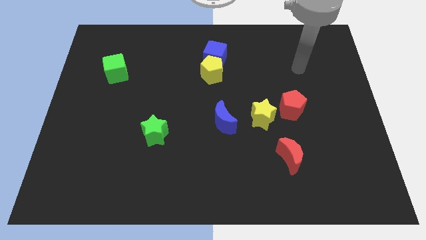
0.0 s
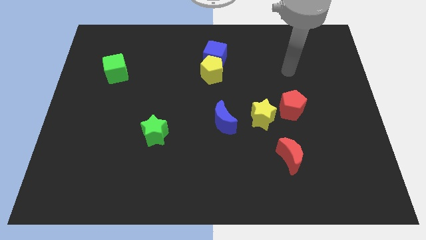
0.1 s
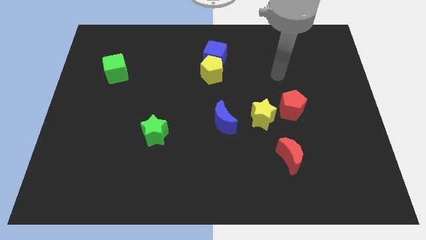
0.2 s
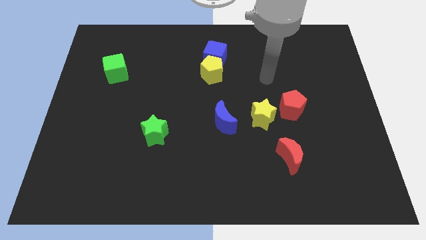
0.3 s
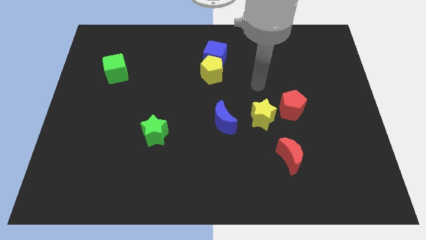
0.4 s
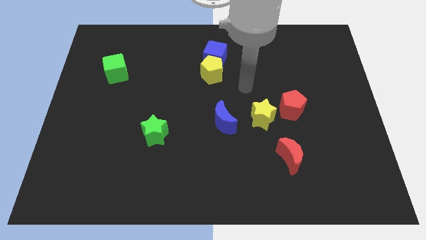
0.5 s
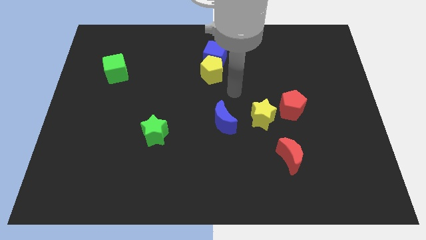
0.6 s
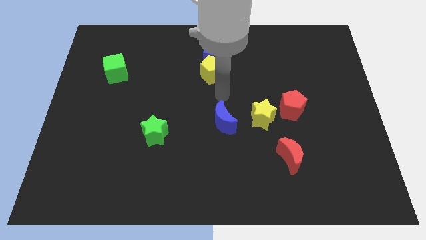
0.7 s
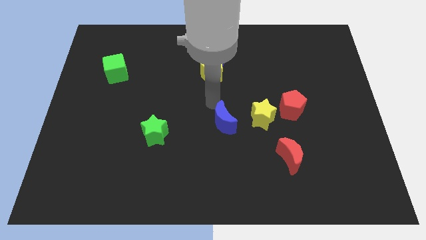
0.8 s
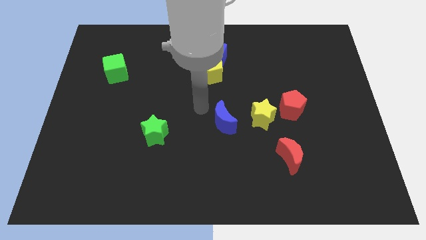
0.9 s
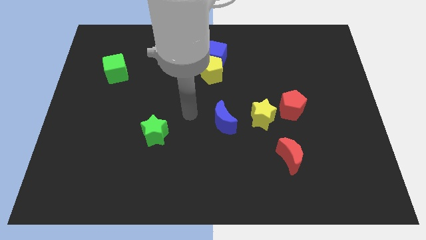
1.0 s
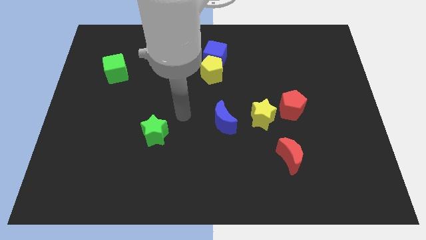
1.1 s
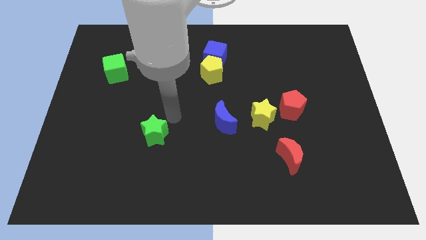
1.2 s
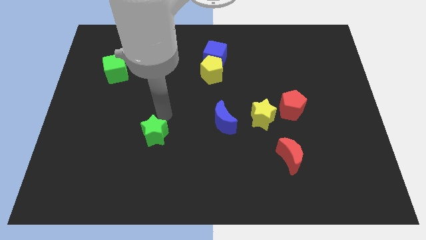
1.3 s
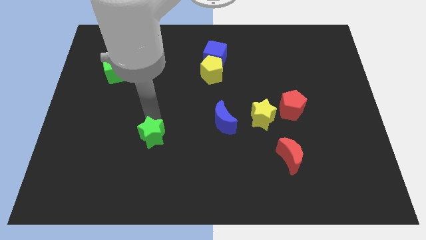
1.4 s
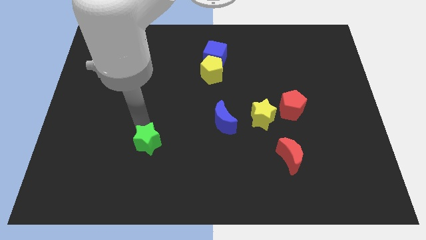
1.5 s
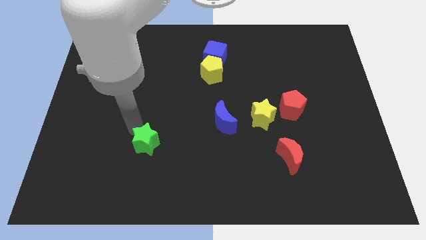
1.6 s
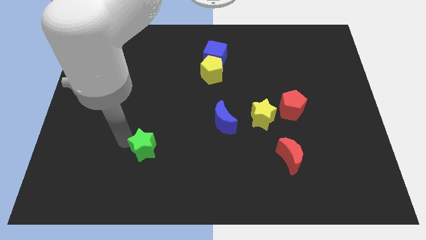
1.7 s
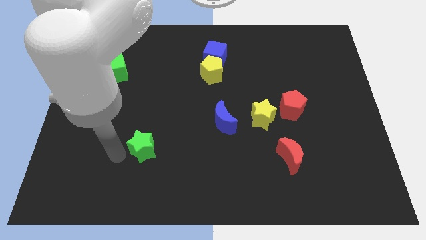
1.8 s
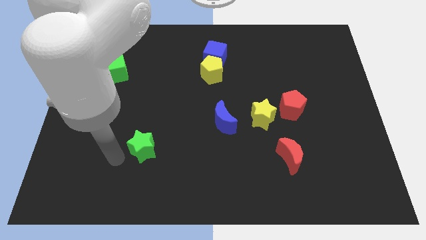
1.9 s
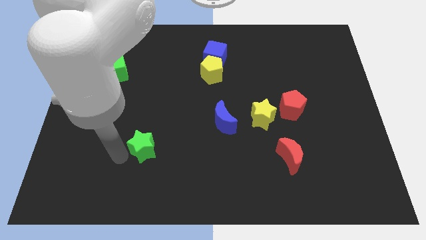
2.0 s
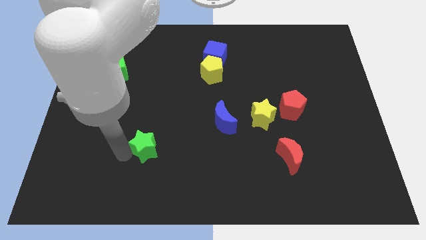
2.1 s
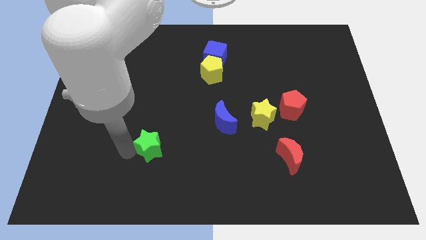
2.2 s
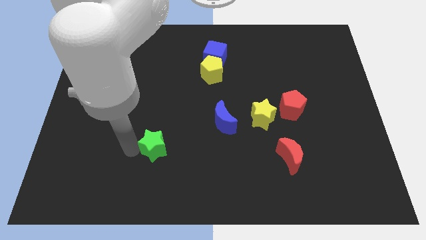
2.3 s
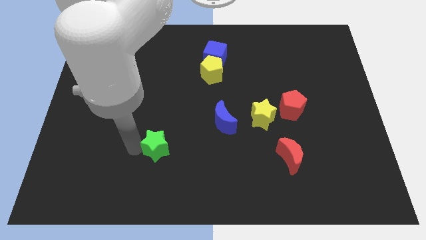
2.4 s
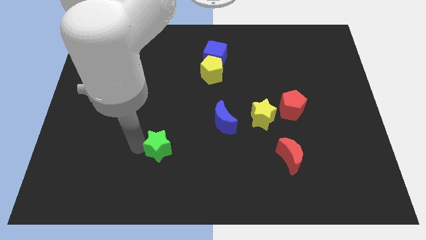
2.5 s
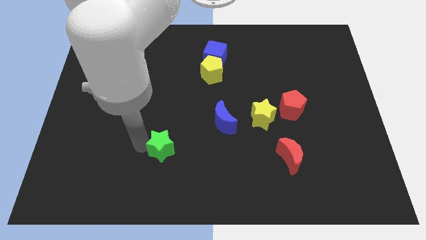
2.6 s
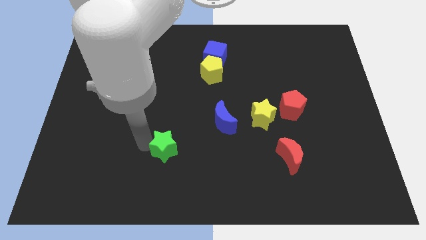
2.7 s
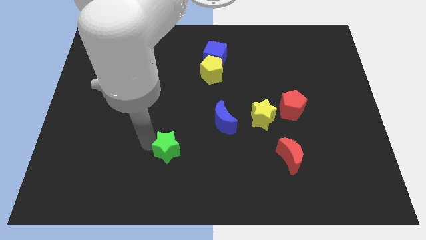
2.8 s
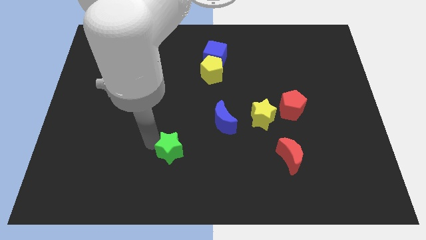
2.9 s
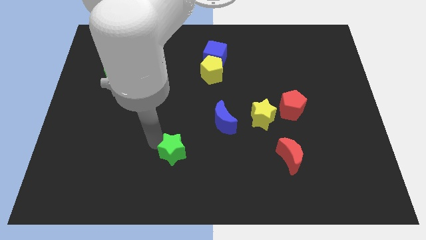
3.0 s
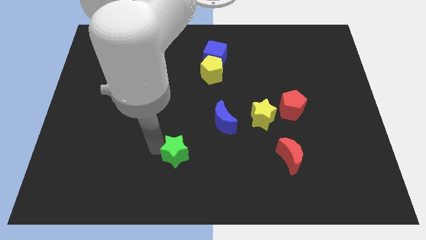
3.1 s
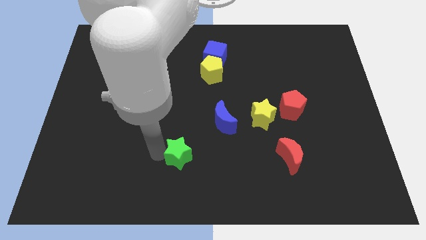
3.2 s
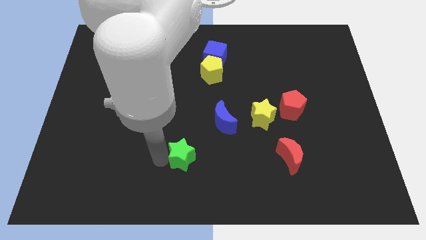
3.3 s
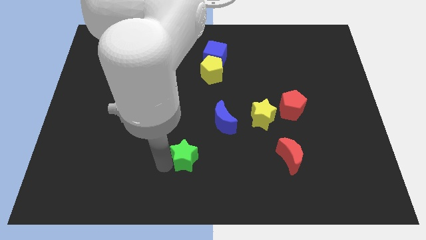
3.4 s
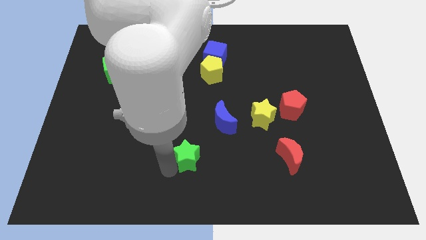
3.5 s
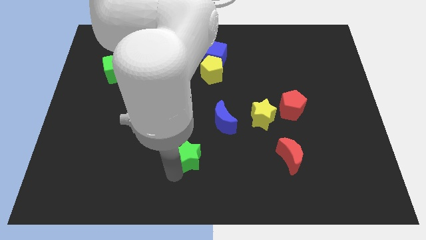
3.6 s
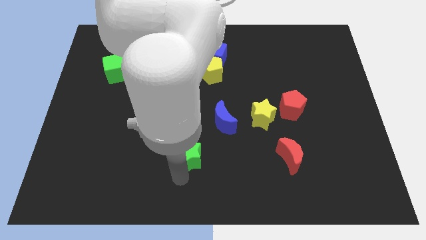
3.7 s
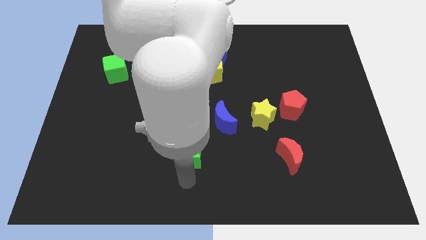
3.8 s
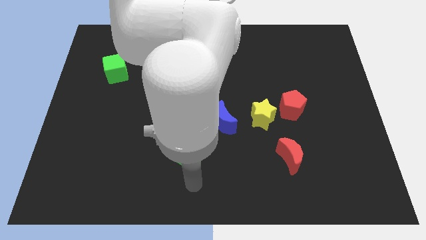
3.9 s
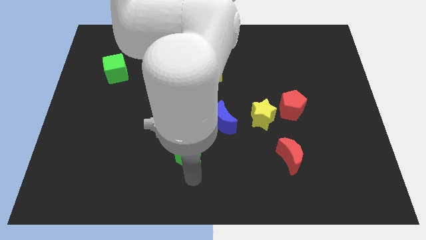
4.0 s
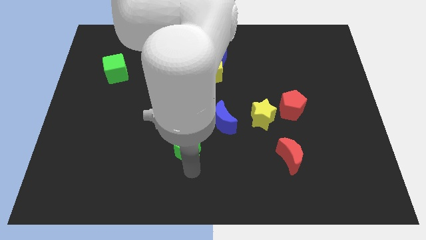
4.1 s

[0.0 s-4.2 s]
slide the green star a little to the right

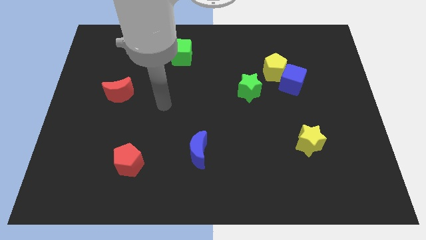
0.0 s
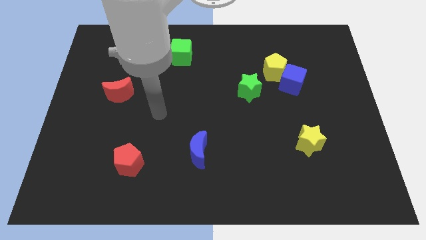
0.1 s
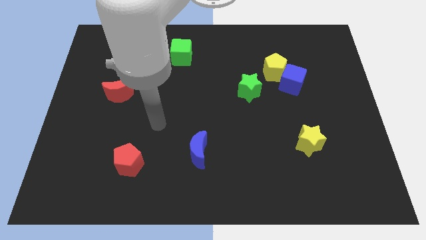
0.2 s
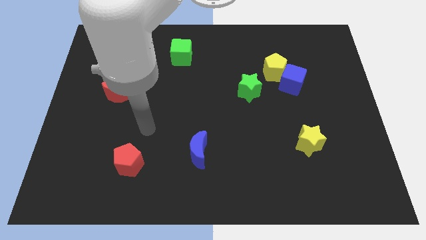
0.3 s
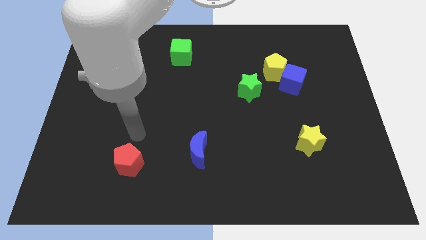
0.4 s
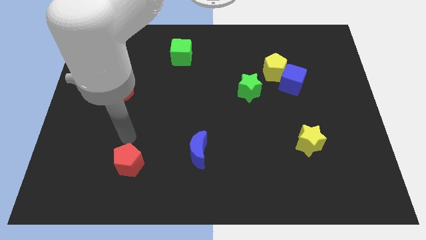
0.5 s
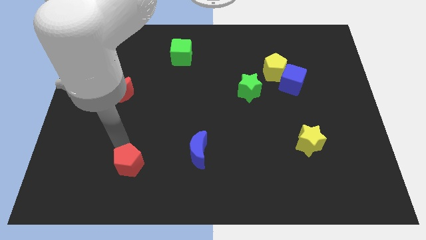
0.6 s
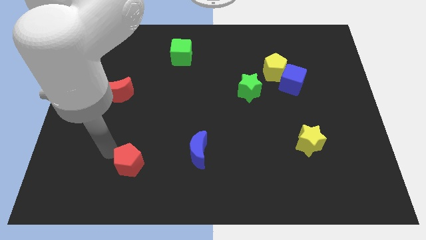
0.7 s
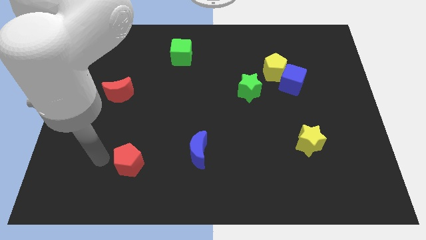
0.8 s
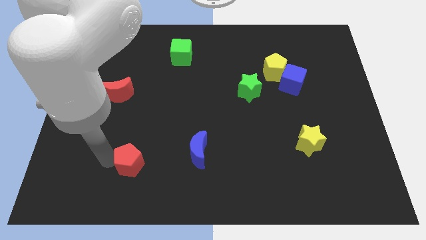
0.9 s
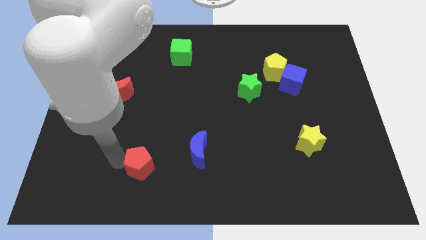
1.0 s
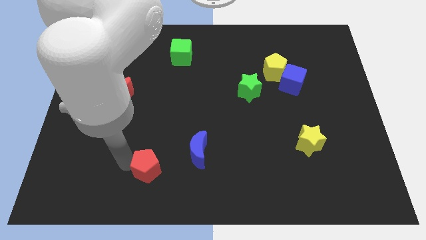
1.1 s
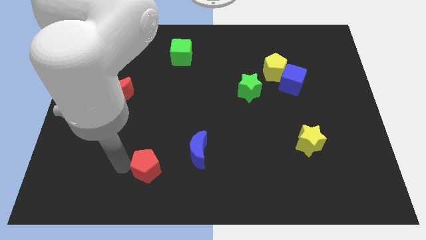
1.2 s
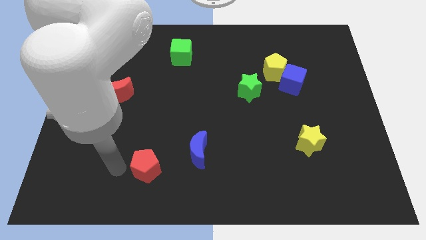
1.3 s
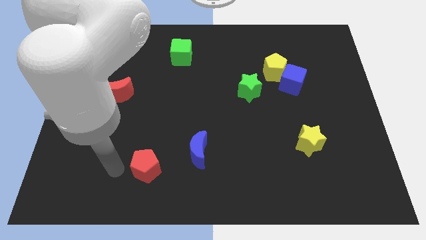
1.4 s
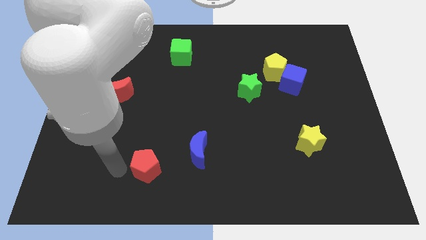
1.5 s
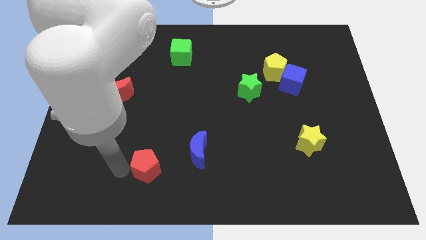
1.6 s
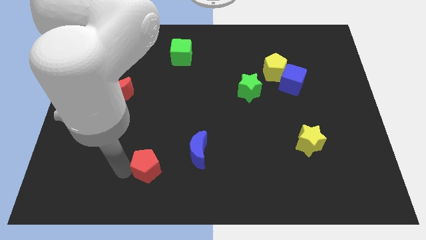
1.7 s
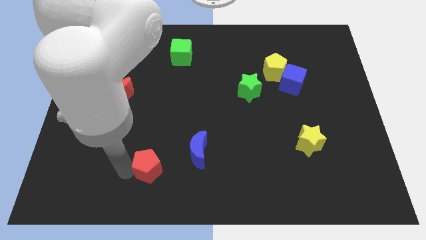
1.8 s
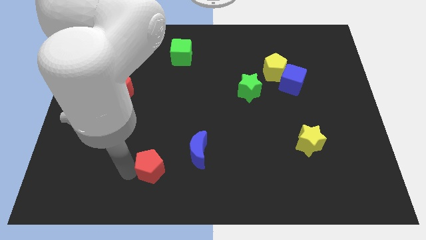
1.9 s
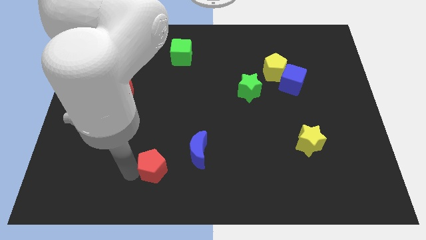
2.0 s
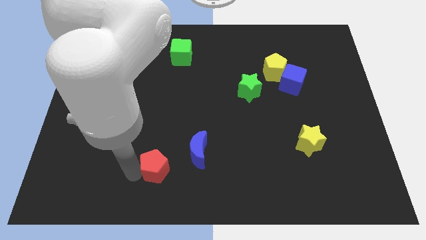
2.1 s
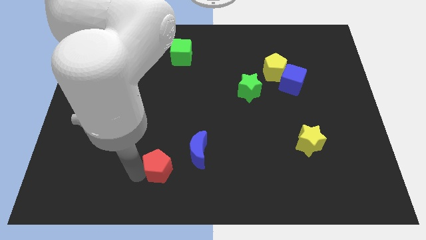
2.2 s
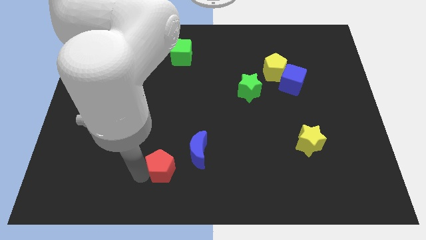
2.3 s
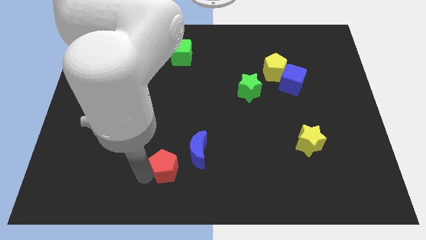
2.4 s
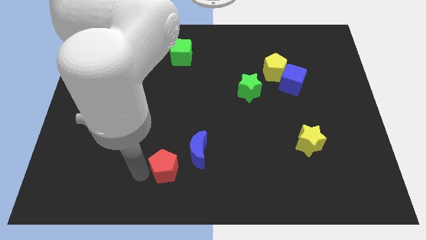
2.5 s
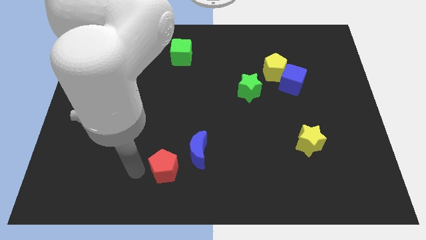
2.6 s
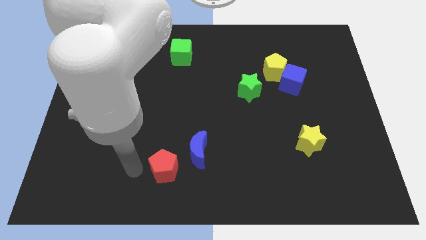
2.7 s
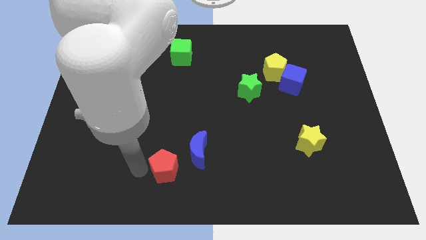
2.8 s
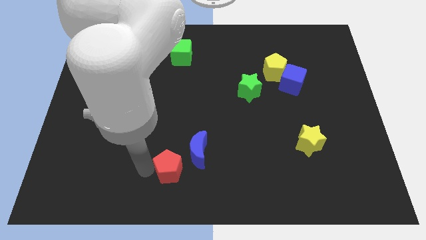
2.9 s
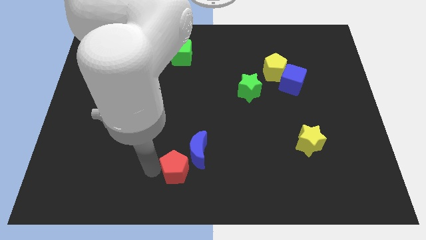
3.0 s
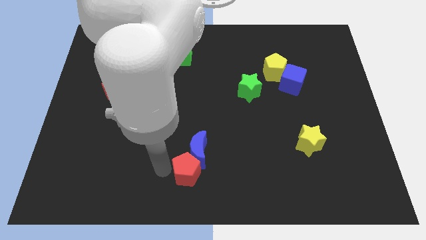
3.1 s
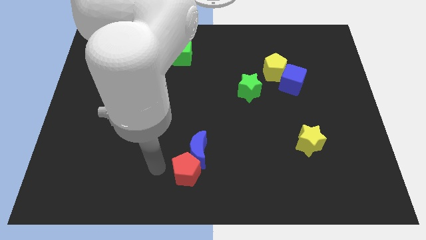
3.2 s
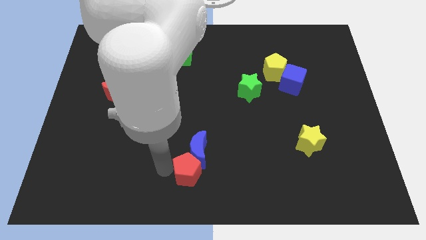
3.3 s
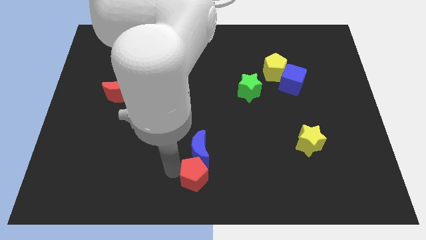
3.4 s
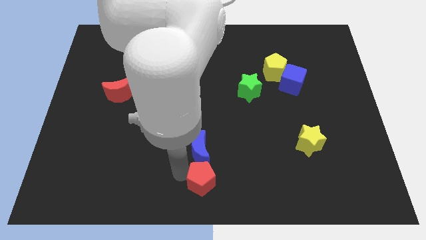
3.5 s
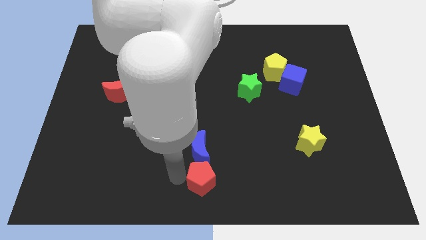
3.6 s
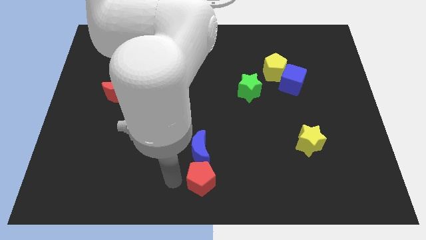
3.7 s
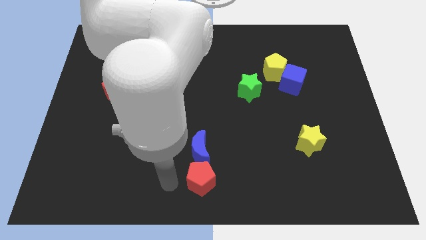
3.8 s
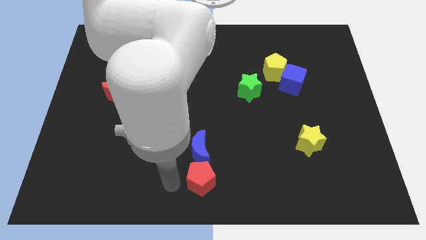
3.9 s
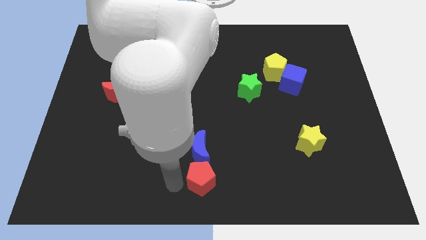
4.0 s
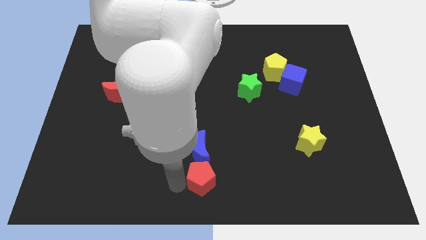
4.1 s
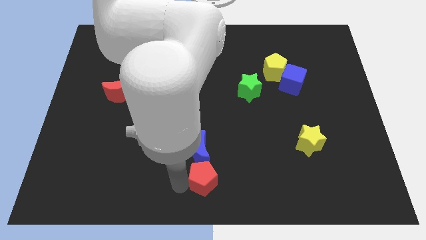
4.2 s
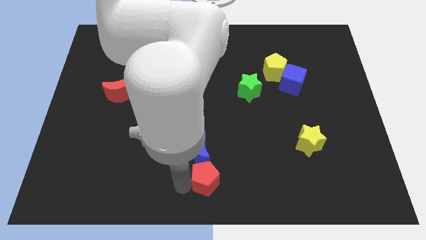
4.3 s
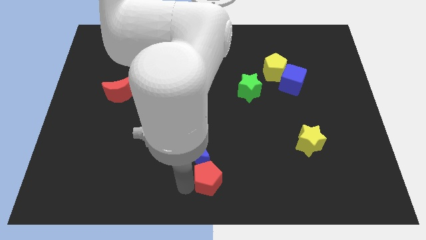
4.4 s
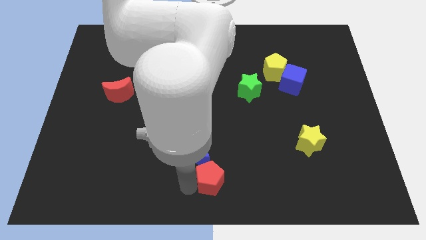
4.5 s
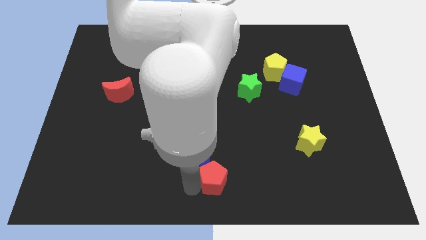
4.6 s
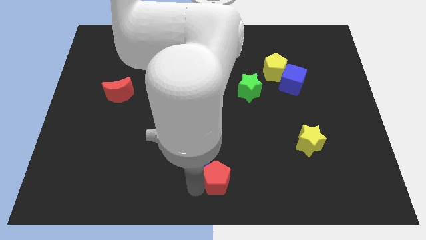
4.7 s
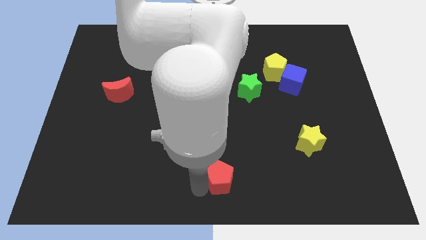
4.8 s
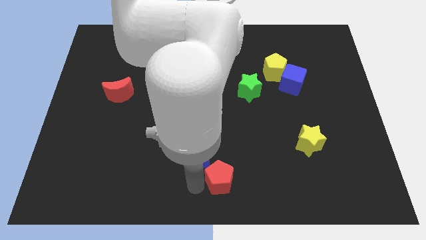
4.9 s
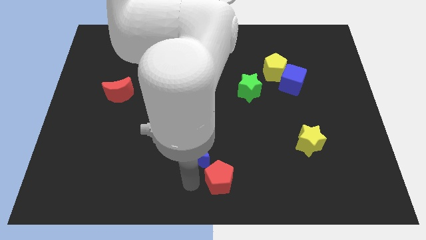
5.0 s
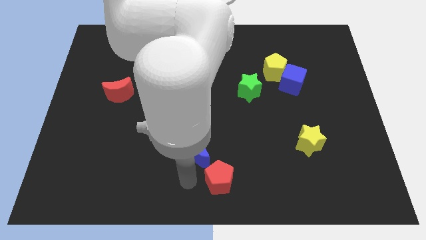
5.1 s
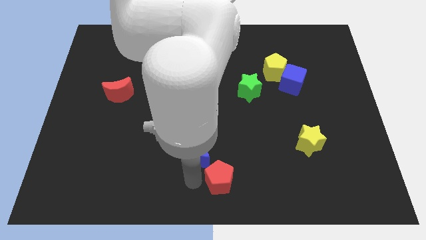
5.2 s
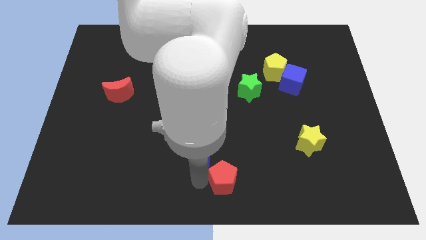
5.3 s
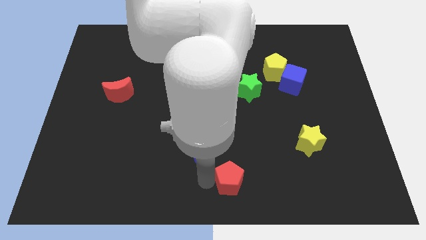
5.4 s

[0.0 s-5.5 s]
move the red pentagon right
